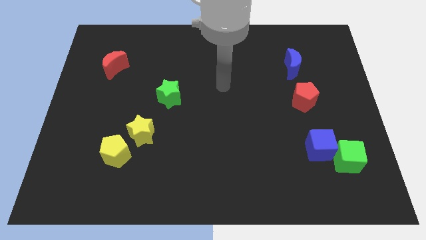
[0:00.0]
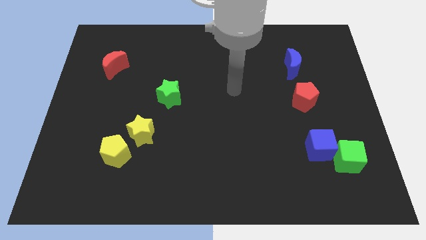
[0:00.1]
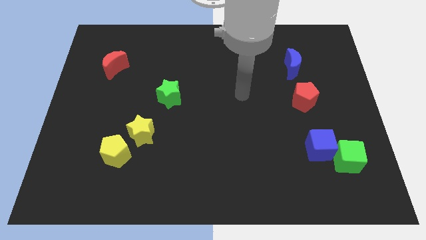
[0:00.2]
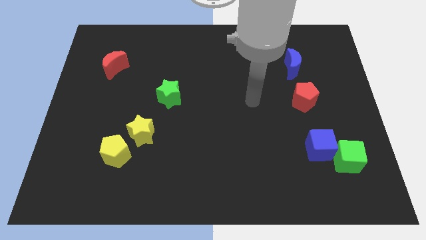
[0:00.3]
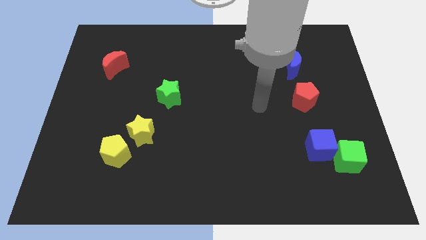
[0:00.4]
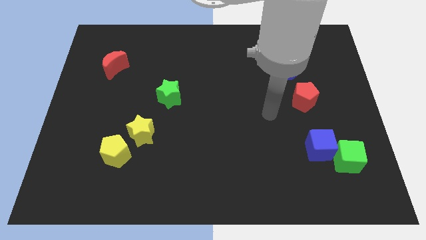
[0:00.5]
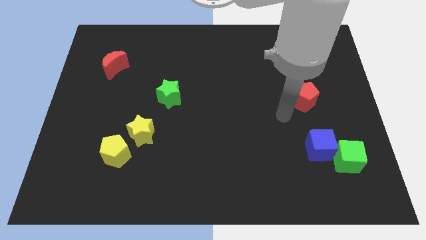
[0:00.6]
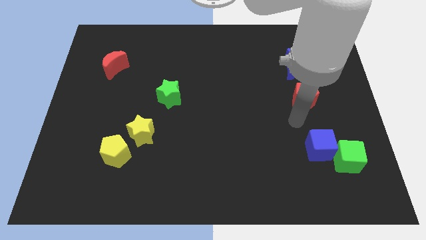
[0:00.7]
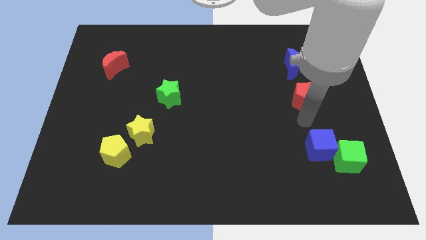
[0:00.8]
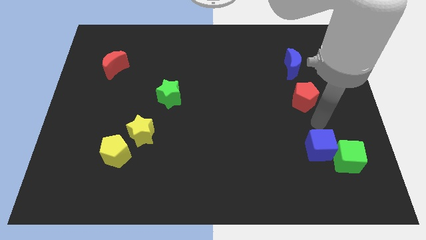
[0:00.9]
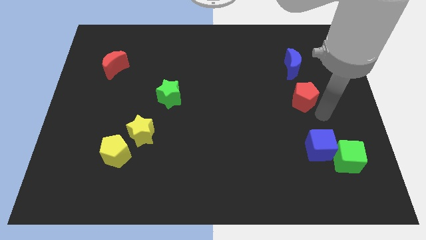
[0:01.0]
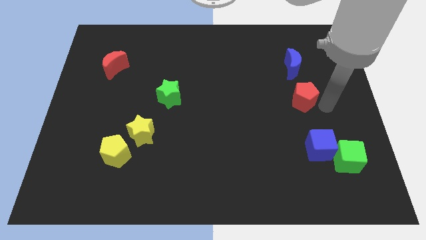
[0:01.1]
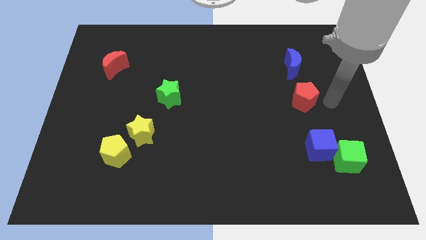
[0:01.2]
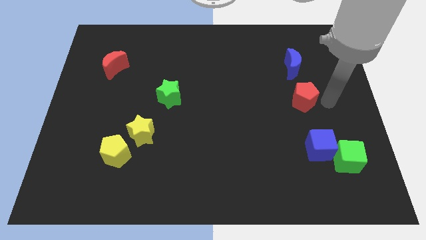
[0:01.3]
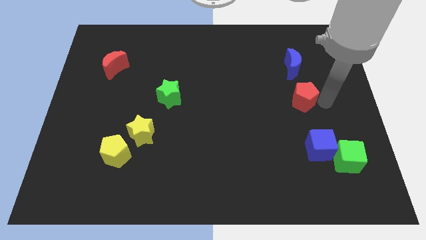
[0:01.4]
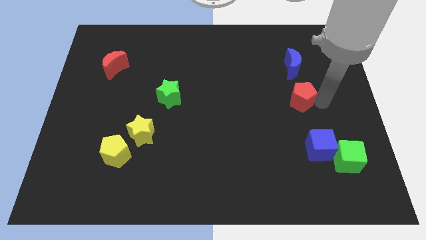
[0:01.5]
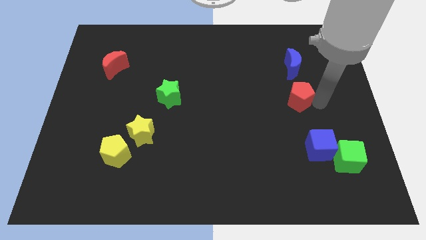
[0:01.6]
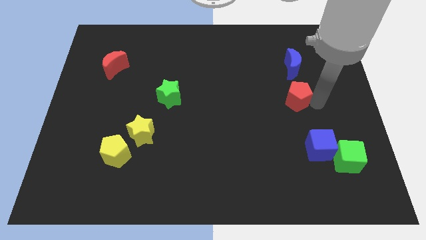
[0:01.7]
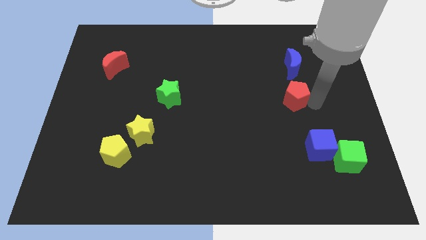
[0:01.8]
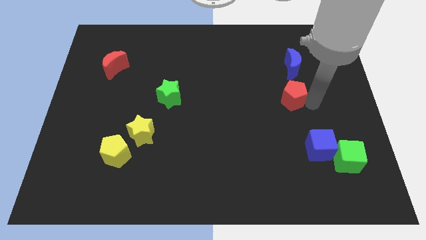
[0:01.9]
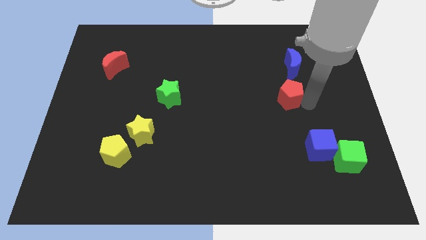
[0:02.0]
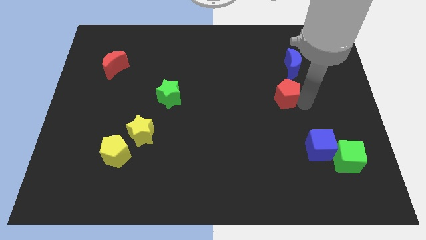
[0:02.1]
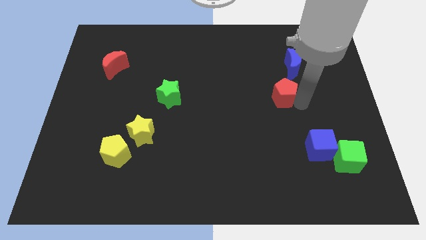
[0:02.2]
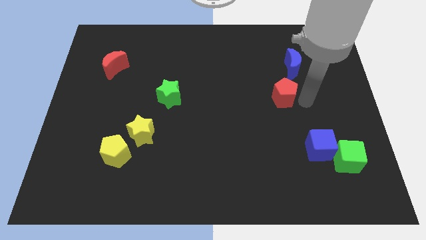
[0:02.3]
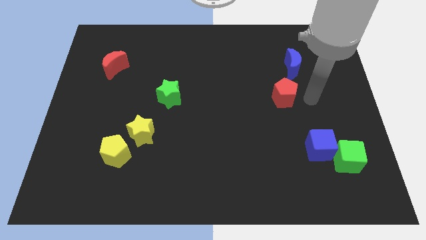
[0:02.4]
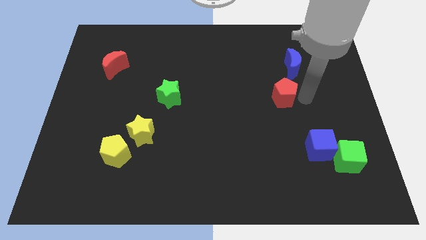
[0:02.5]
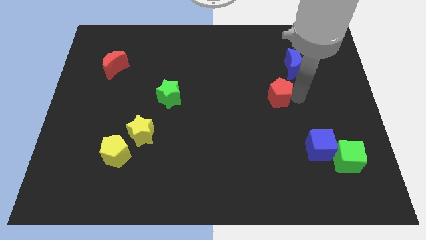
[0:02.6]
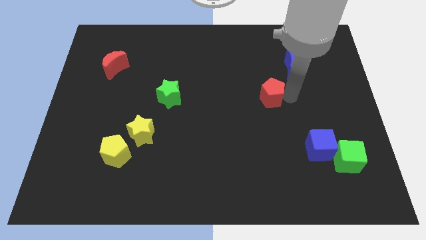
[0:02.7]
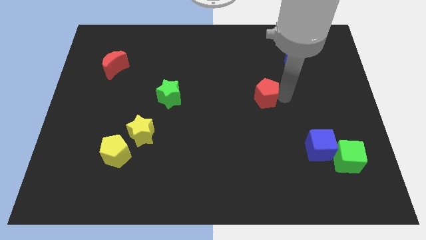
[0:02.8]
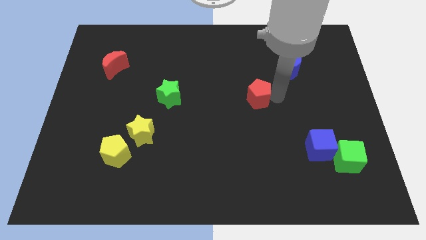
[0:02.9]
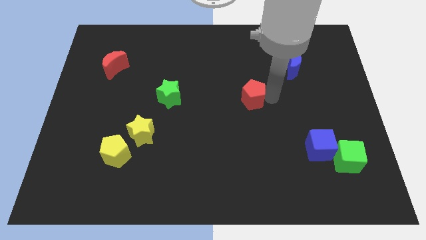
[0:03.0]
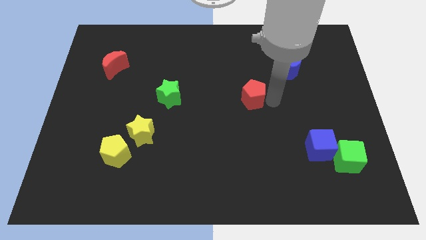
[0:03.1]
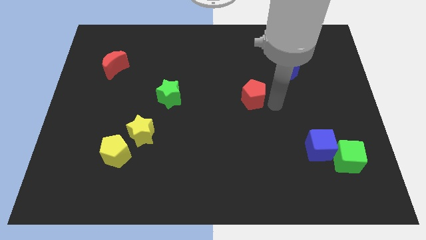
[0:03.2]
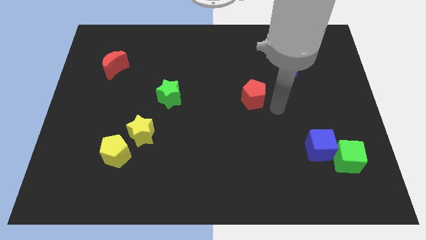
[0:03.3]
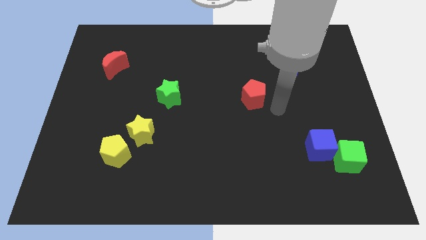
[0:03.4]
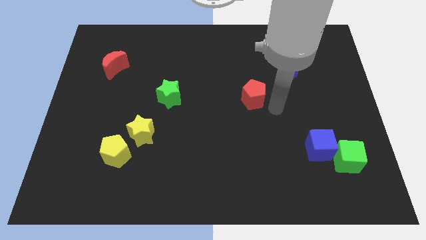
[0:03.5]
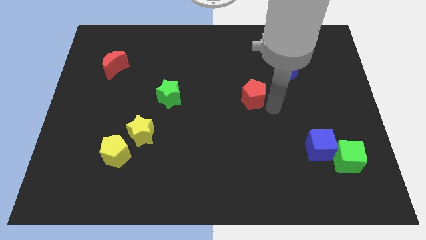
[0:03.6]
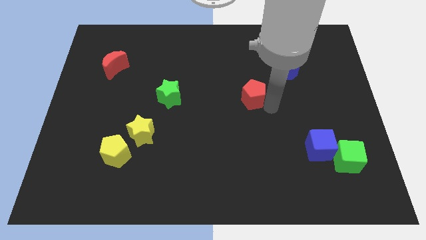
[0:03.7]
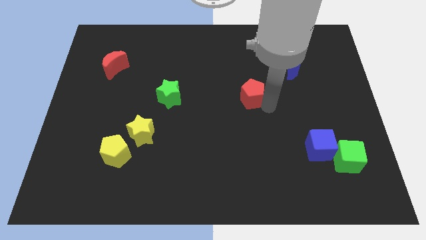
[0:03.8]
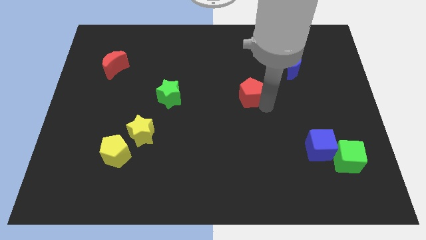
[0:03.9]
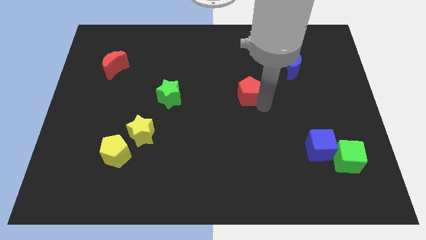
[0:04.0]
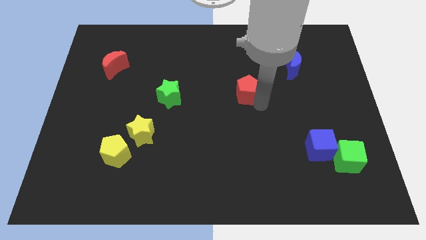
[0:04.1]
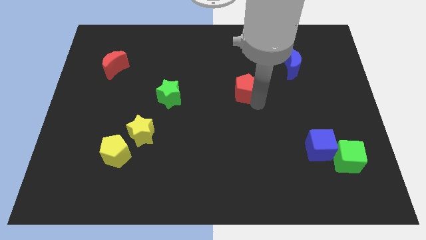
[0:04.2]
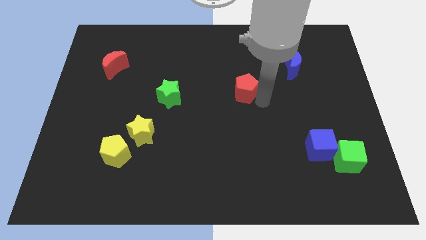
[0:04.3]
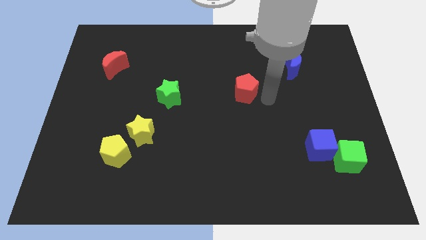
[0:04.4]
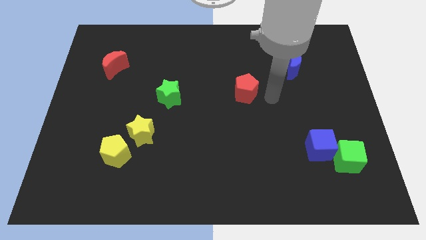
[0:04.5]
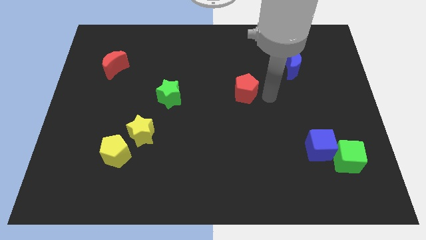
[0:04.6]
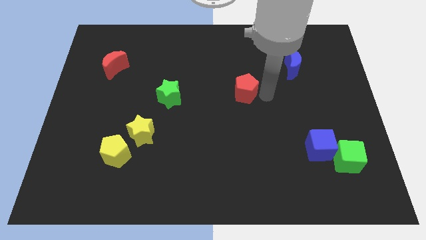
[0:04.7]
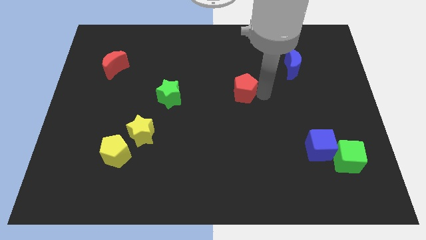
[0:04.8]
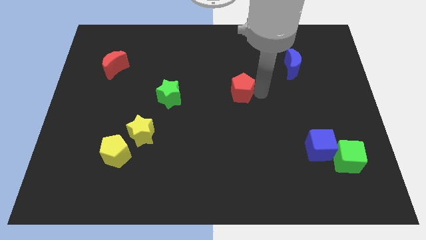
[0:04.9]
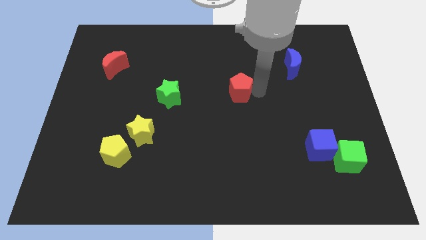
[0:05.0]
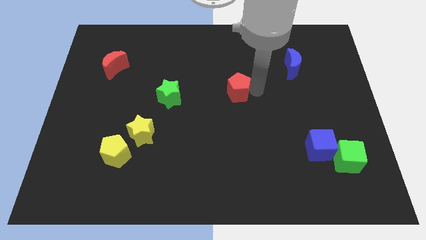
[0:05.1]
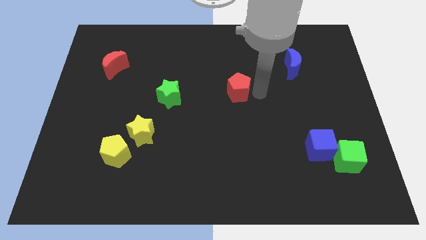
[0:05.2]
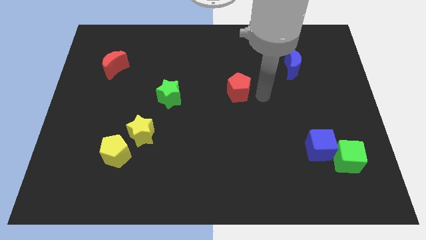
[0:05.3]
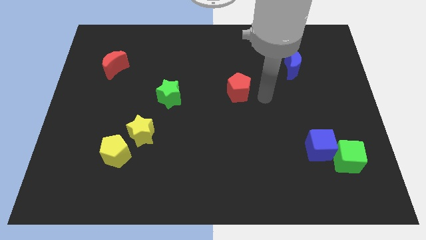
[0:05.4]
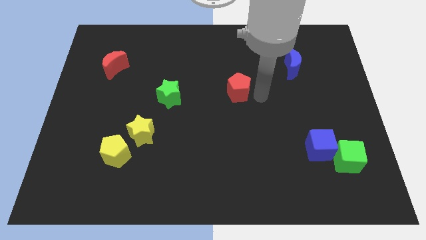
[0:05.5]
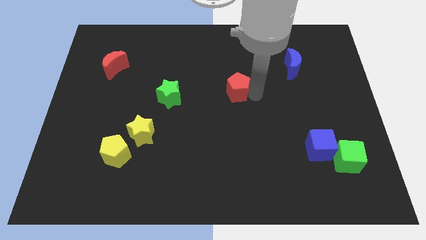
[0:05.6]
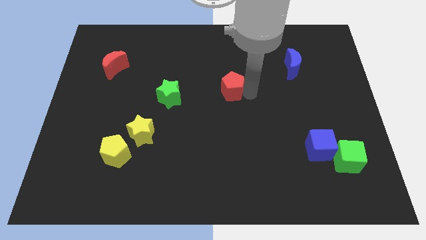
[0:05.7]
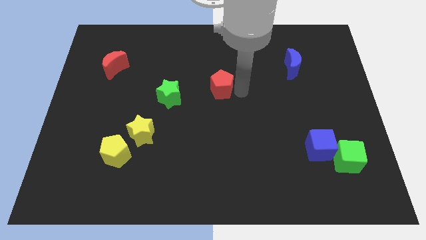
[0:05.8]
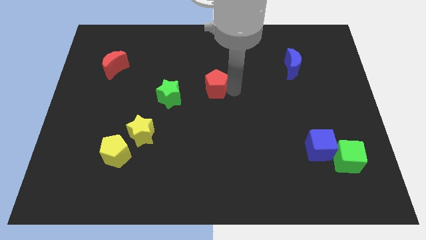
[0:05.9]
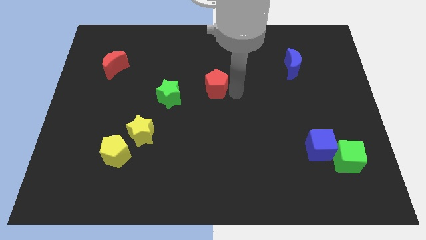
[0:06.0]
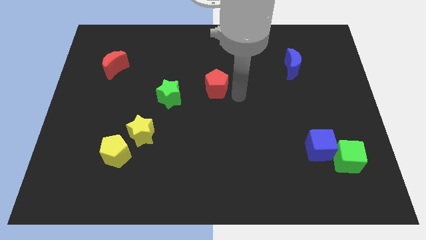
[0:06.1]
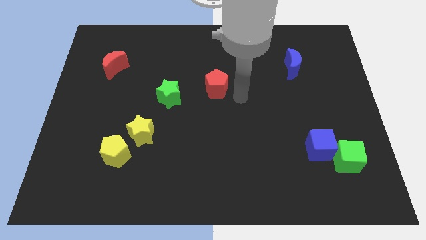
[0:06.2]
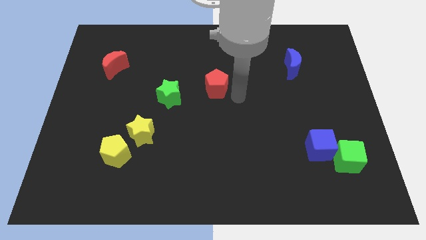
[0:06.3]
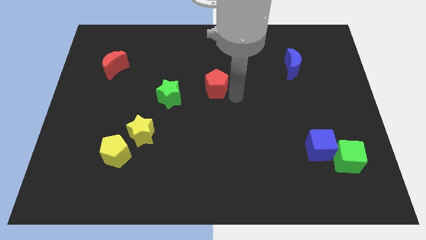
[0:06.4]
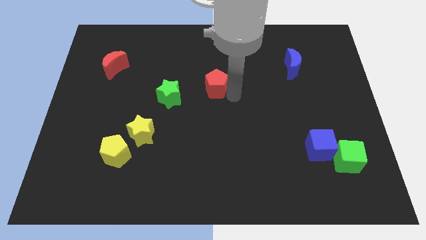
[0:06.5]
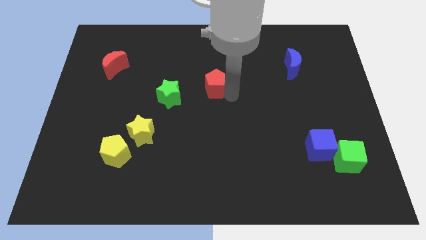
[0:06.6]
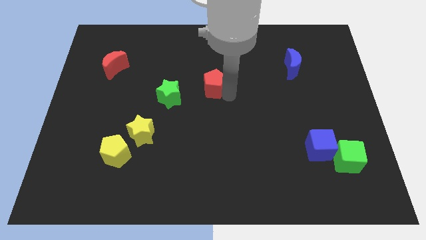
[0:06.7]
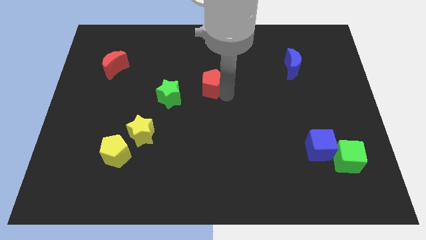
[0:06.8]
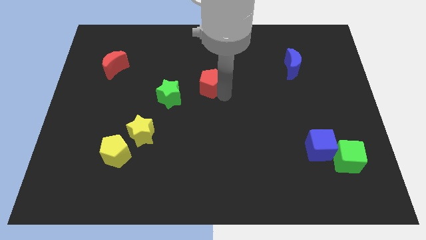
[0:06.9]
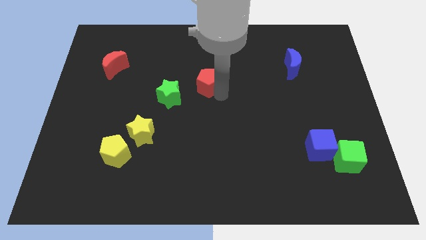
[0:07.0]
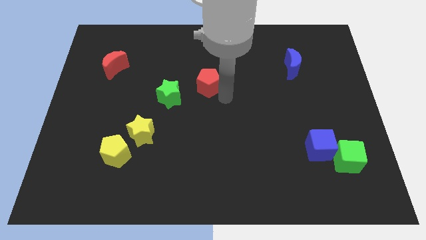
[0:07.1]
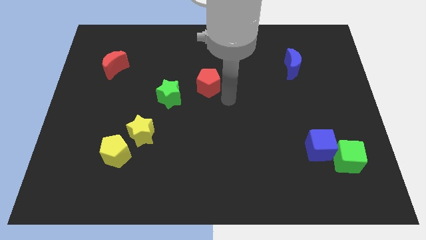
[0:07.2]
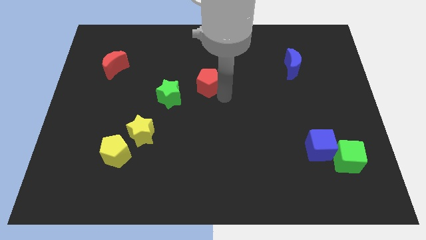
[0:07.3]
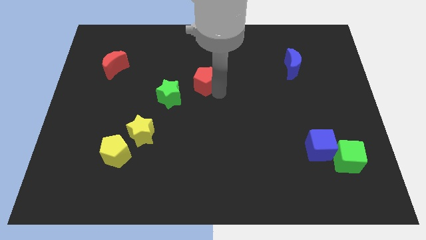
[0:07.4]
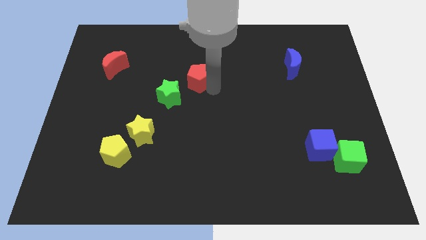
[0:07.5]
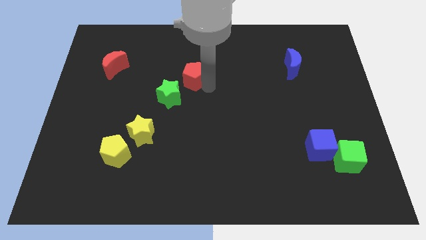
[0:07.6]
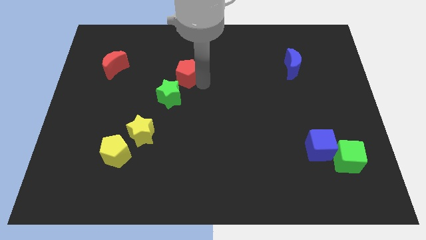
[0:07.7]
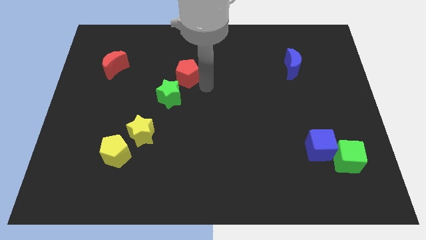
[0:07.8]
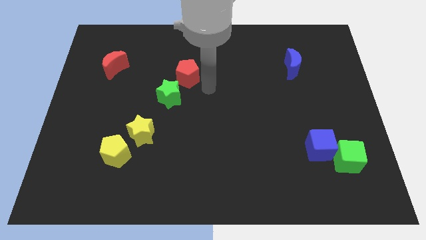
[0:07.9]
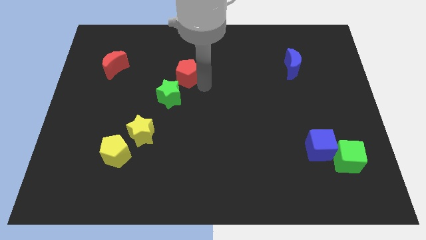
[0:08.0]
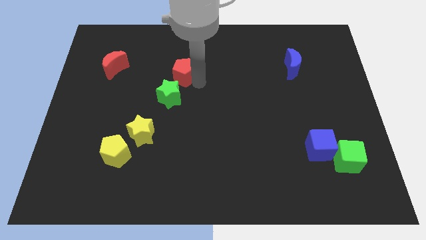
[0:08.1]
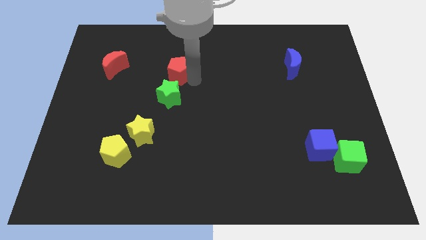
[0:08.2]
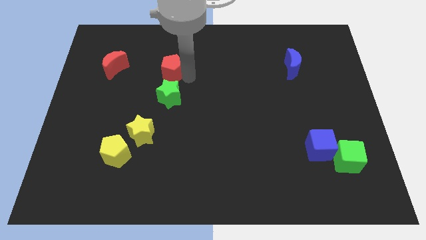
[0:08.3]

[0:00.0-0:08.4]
push the red pentagon right of the red moon
